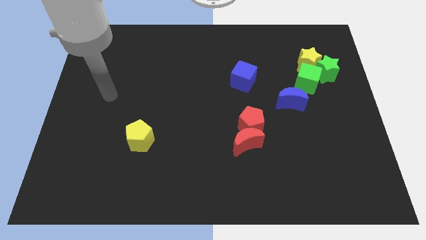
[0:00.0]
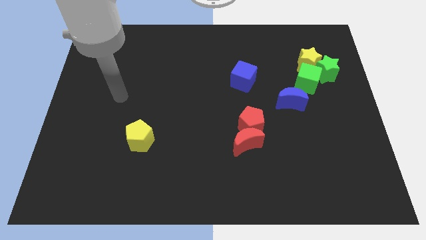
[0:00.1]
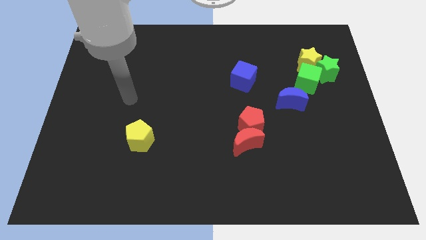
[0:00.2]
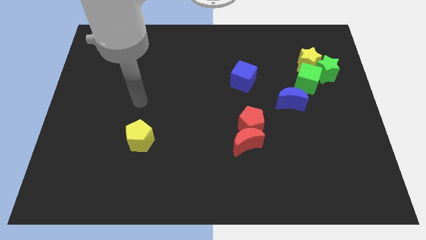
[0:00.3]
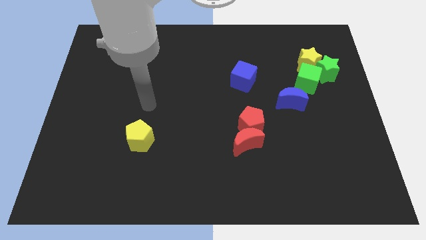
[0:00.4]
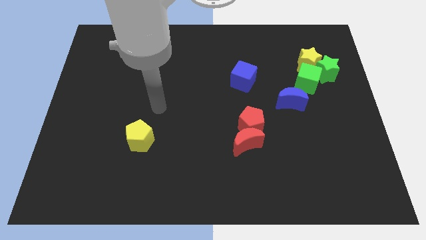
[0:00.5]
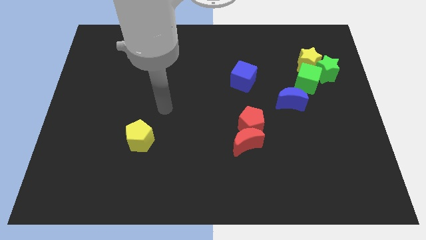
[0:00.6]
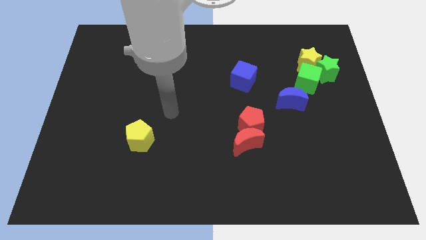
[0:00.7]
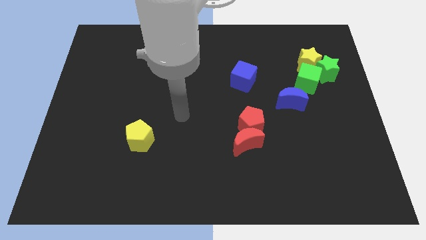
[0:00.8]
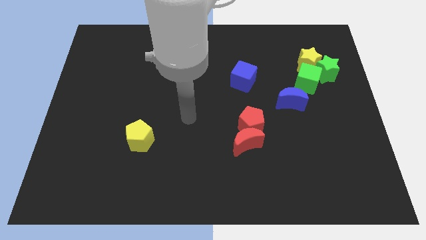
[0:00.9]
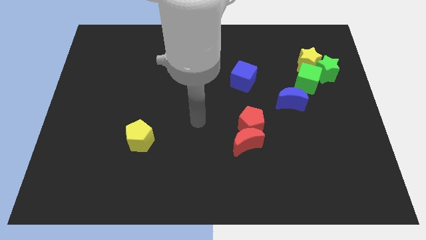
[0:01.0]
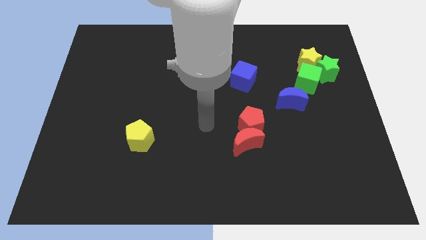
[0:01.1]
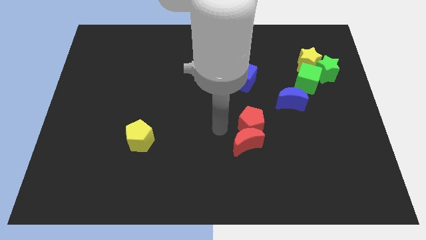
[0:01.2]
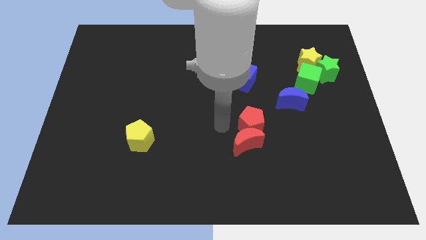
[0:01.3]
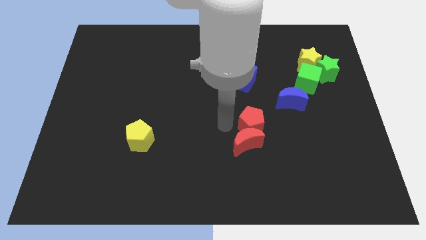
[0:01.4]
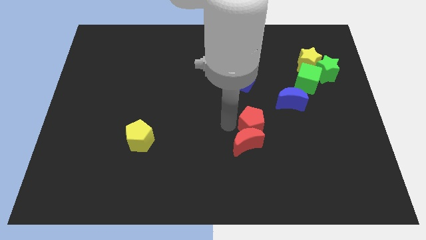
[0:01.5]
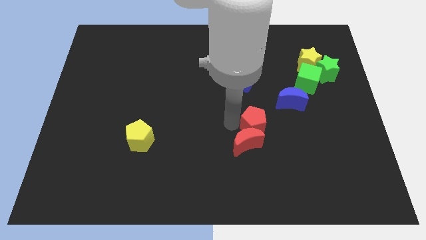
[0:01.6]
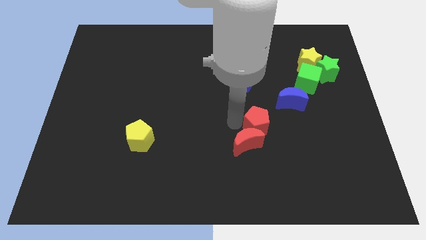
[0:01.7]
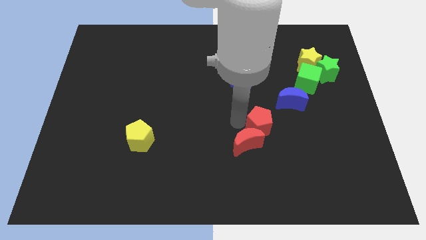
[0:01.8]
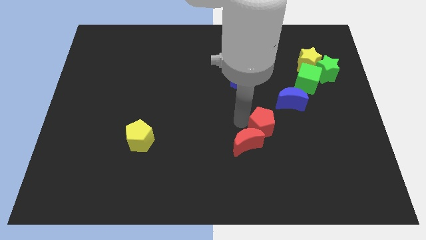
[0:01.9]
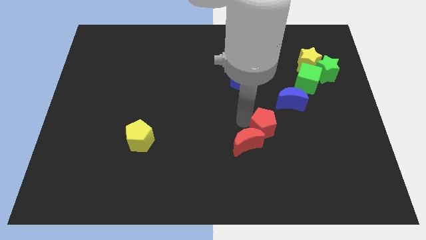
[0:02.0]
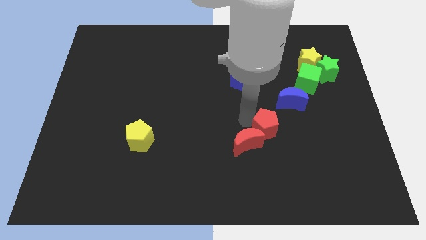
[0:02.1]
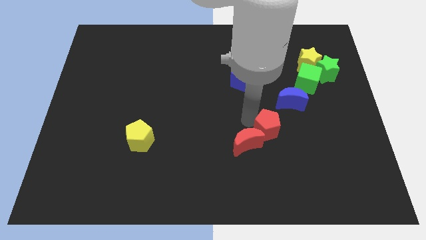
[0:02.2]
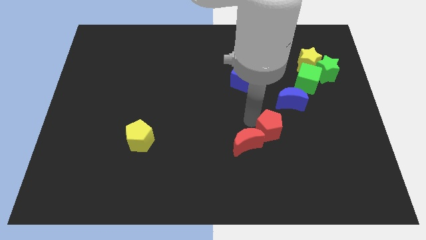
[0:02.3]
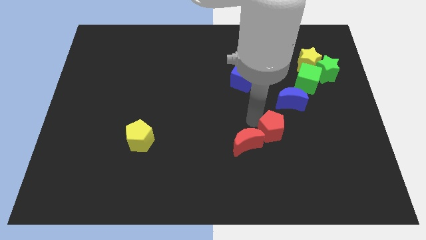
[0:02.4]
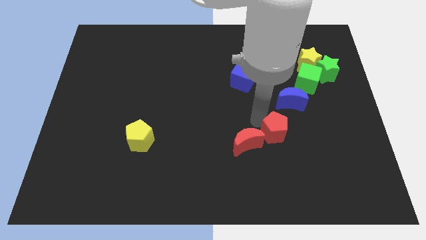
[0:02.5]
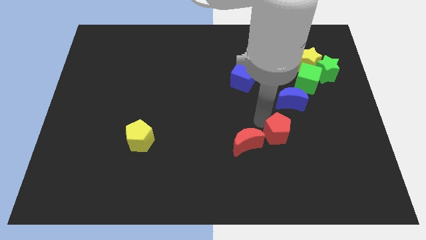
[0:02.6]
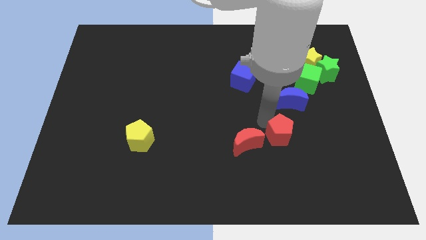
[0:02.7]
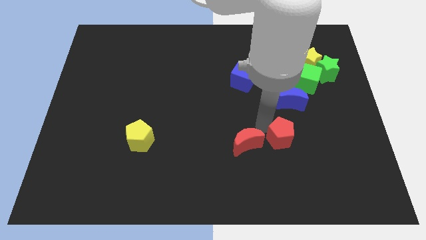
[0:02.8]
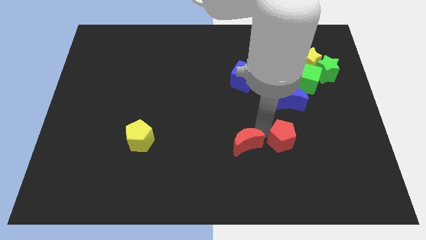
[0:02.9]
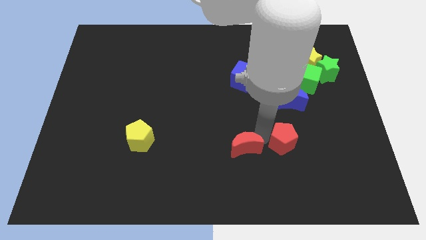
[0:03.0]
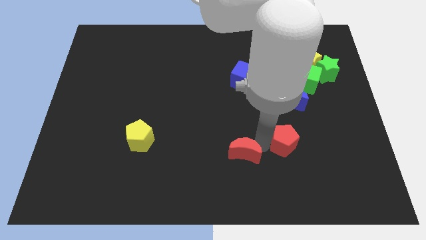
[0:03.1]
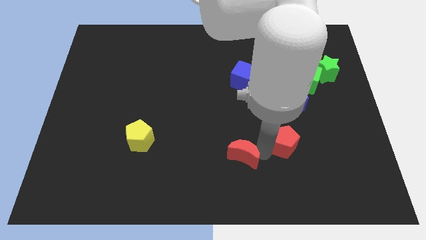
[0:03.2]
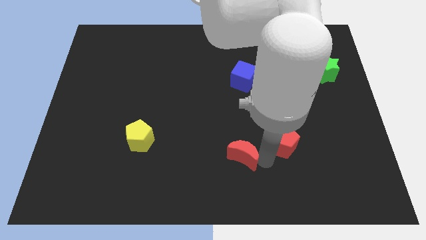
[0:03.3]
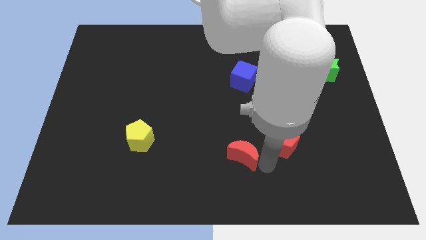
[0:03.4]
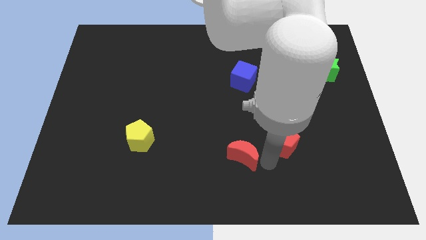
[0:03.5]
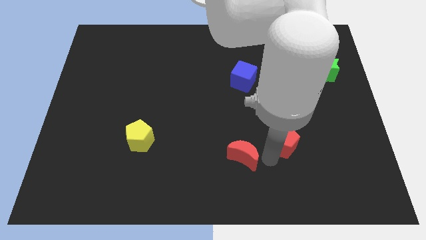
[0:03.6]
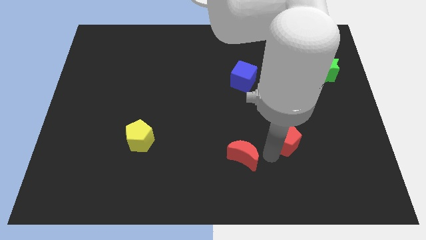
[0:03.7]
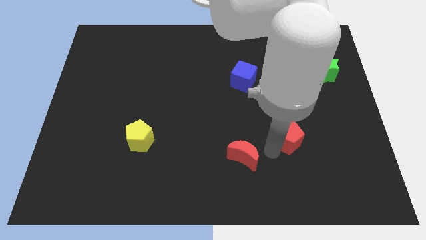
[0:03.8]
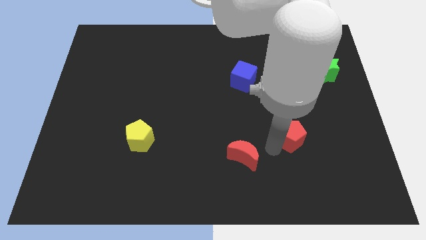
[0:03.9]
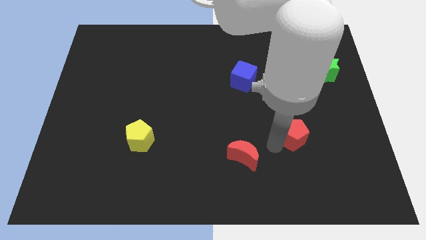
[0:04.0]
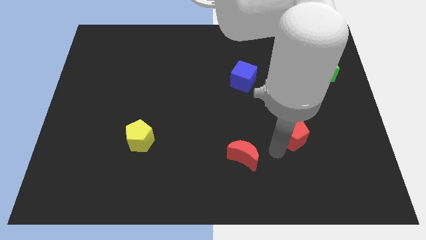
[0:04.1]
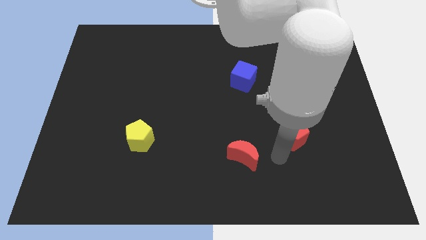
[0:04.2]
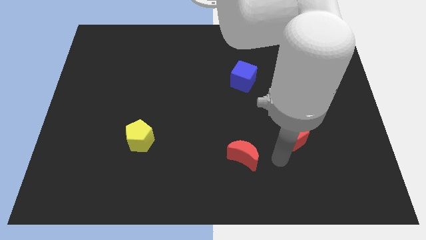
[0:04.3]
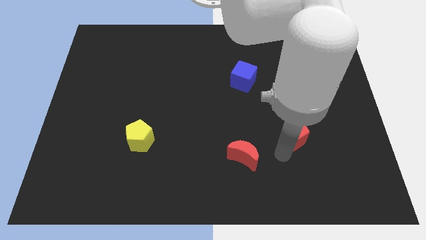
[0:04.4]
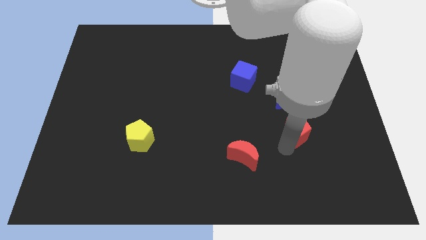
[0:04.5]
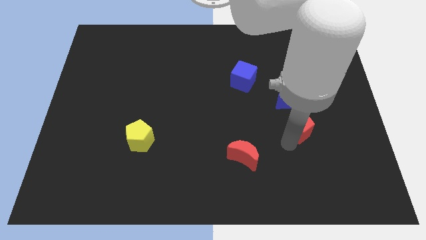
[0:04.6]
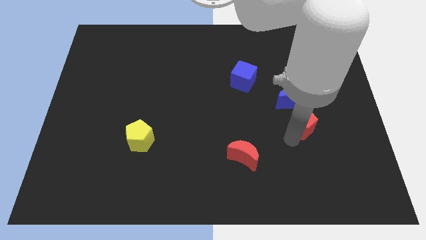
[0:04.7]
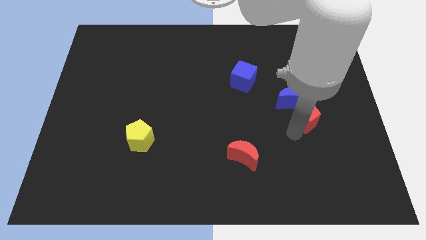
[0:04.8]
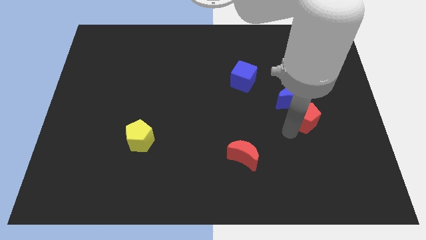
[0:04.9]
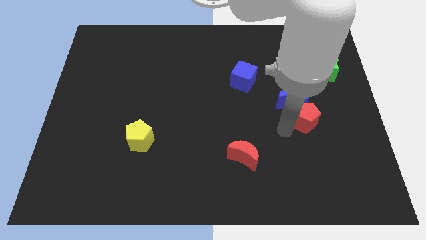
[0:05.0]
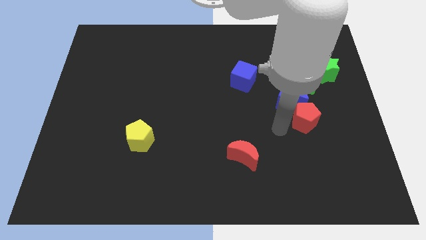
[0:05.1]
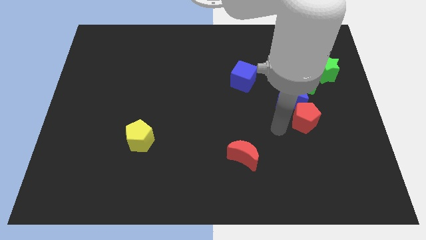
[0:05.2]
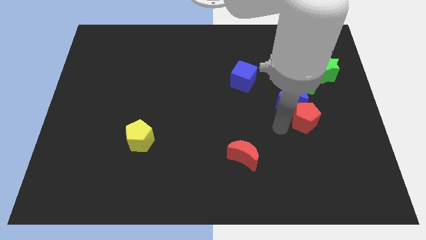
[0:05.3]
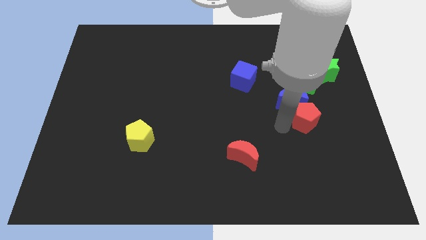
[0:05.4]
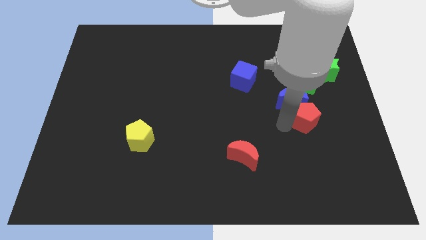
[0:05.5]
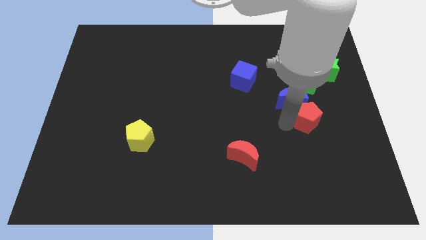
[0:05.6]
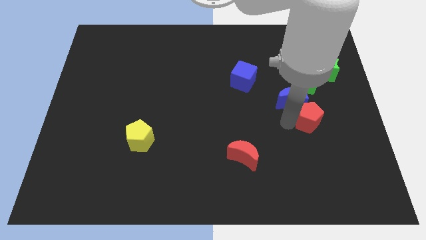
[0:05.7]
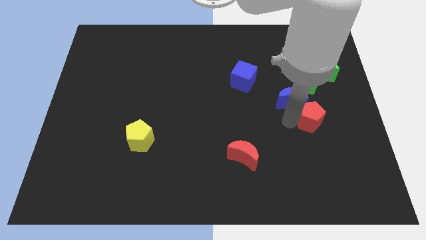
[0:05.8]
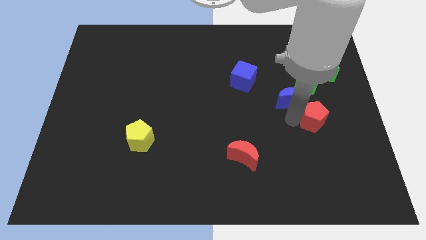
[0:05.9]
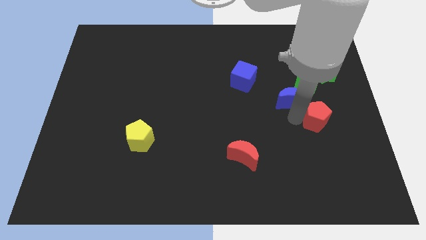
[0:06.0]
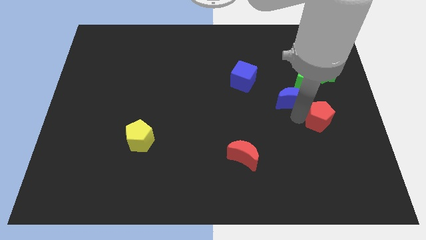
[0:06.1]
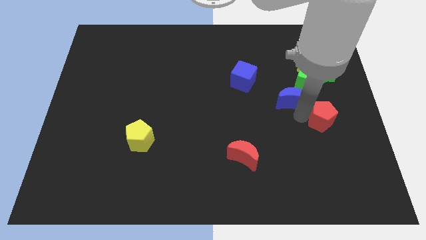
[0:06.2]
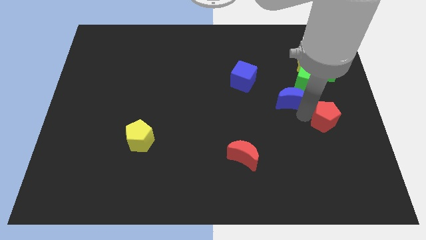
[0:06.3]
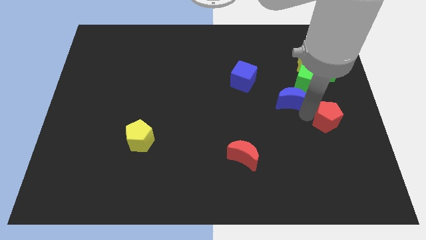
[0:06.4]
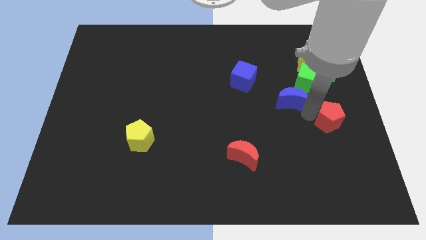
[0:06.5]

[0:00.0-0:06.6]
slide the red pentagon to the right side
